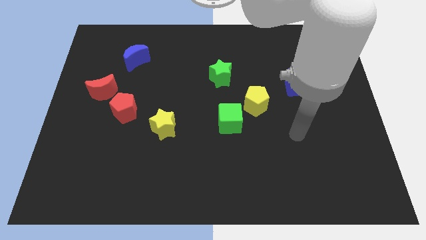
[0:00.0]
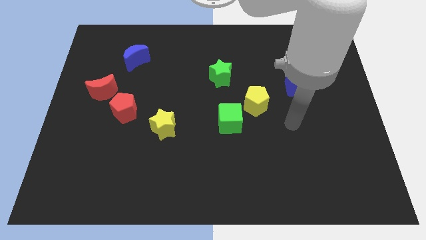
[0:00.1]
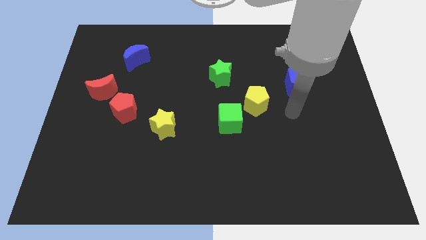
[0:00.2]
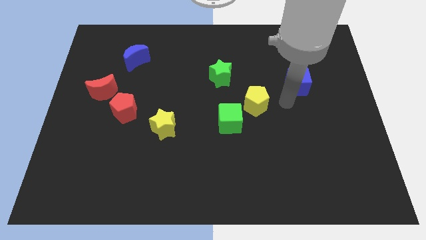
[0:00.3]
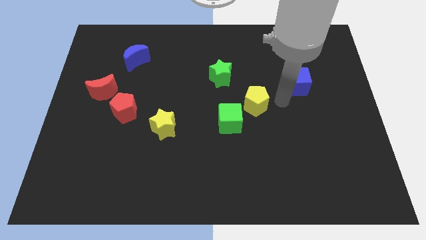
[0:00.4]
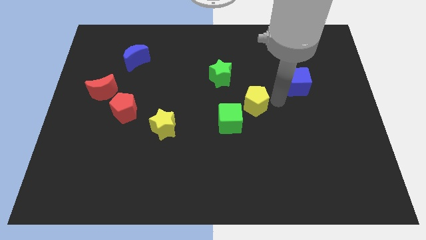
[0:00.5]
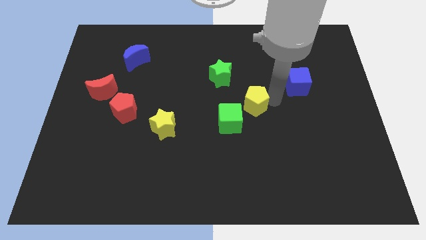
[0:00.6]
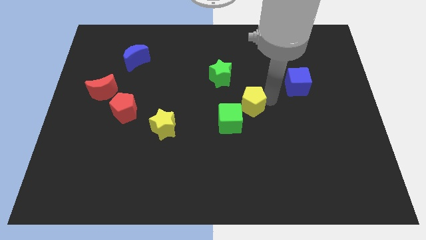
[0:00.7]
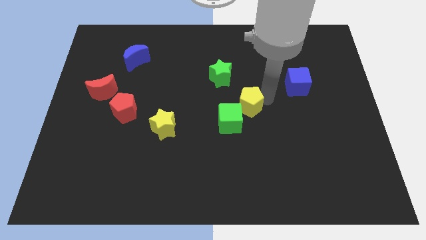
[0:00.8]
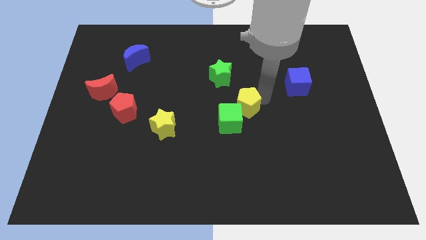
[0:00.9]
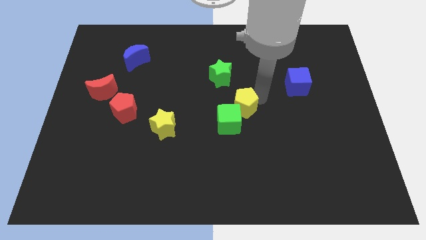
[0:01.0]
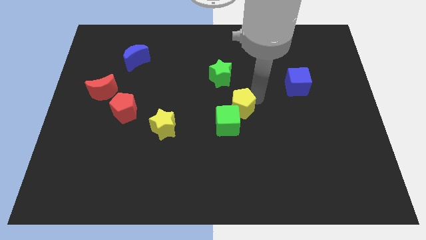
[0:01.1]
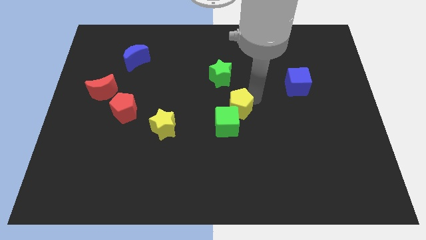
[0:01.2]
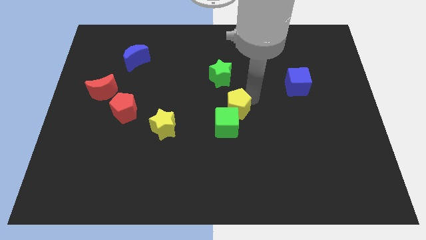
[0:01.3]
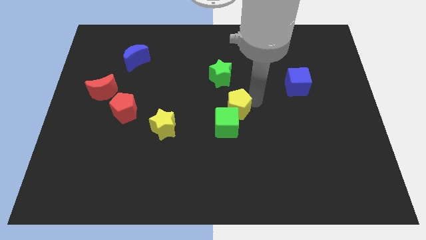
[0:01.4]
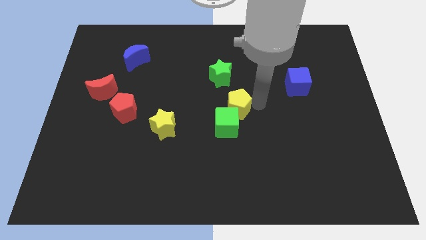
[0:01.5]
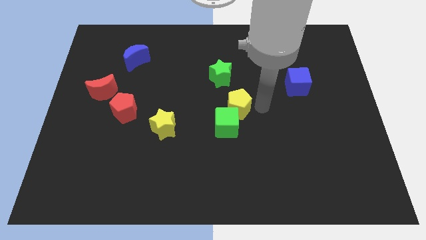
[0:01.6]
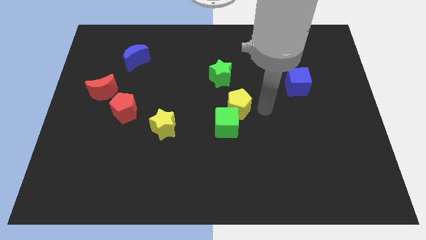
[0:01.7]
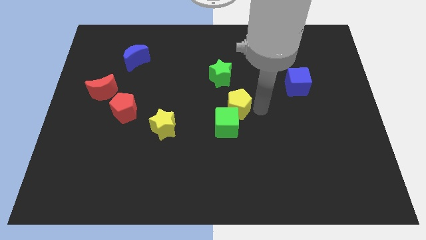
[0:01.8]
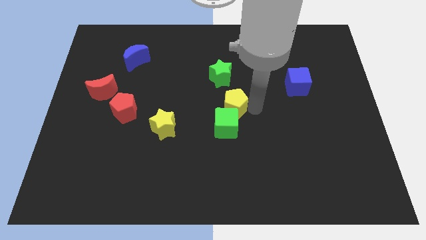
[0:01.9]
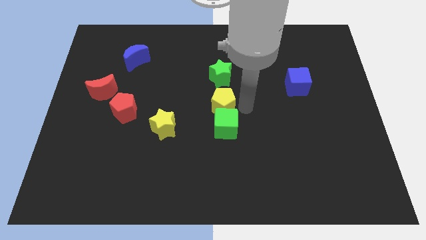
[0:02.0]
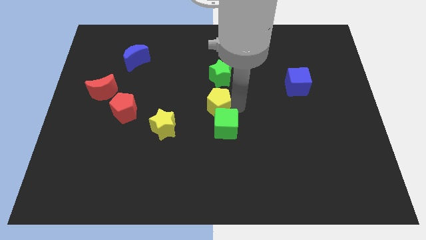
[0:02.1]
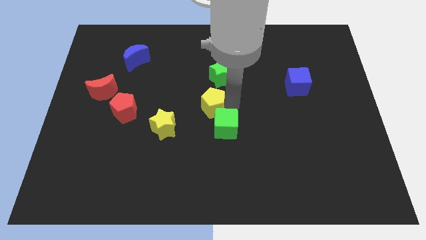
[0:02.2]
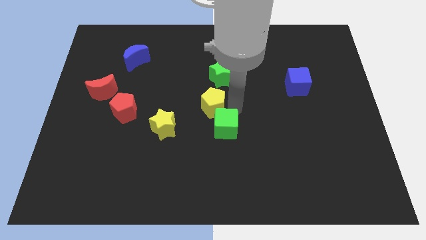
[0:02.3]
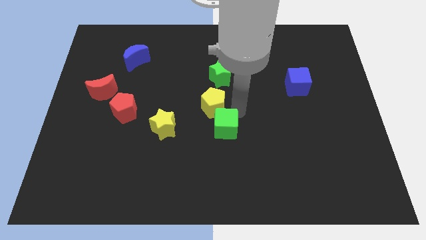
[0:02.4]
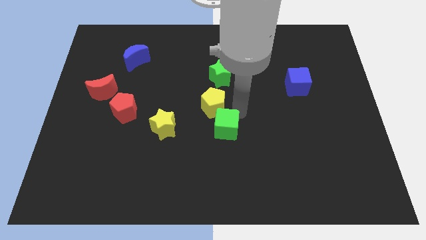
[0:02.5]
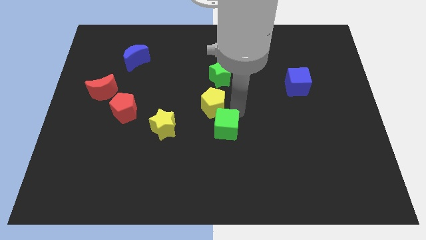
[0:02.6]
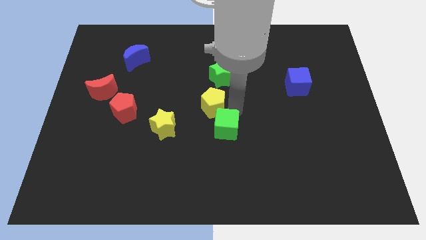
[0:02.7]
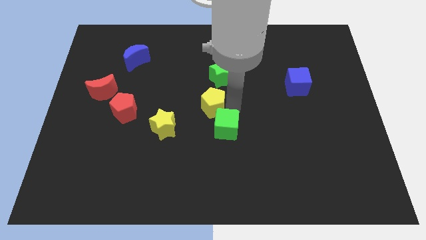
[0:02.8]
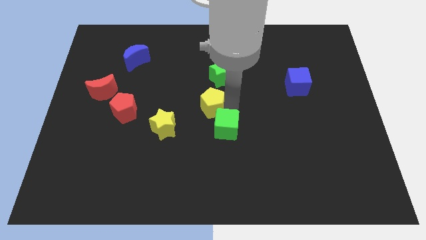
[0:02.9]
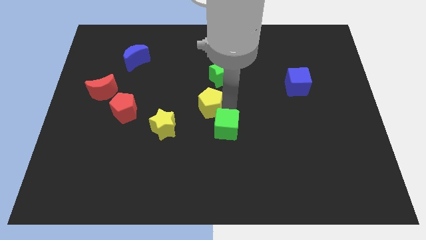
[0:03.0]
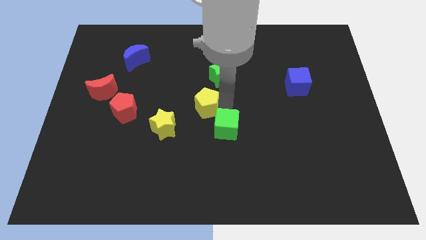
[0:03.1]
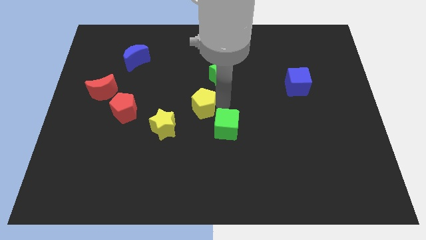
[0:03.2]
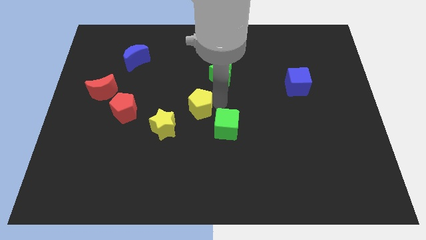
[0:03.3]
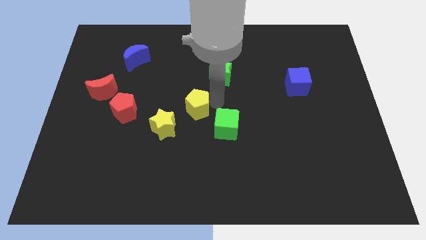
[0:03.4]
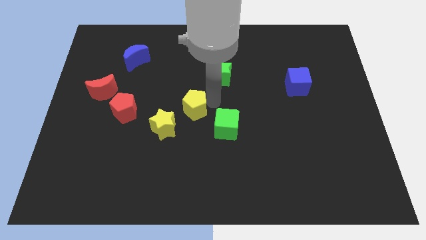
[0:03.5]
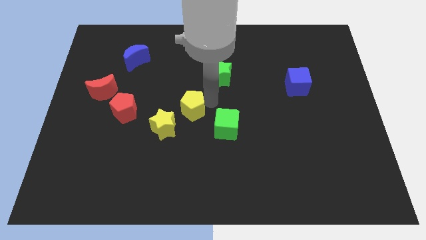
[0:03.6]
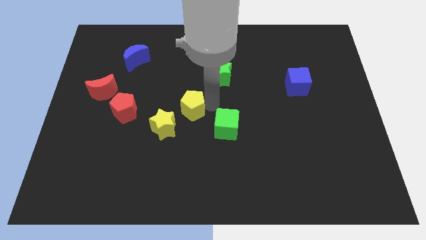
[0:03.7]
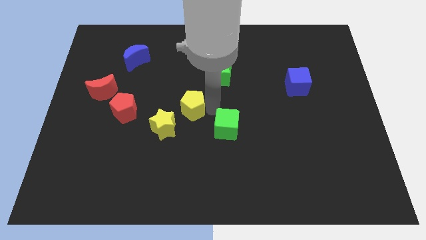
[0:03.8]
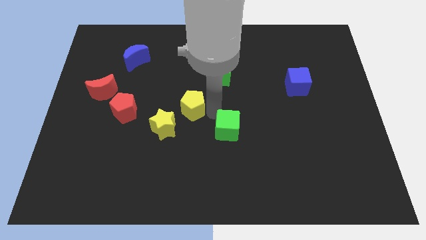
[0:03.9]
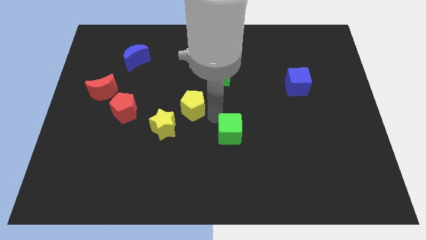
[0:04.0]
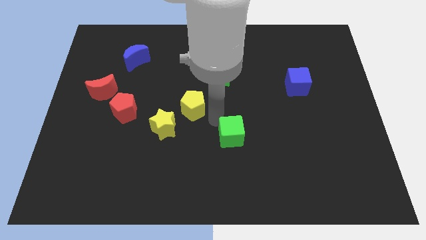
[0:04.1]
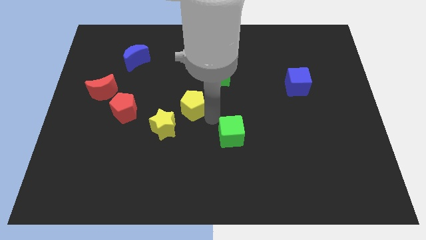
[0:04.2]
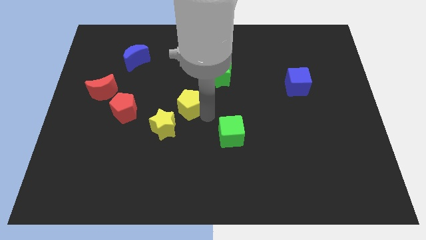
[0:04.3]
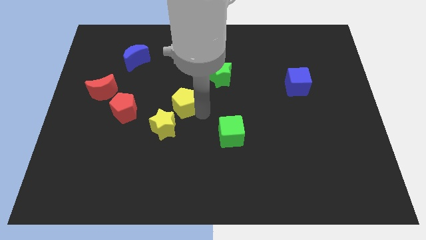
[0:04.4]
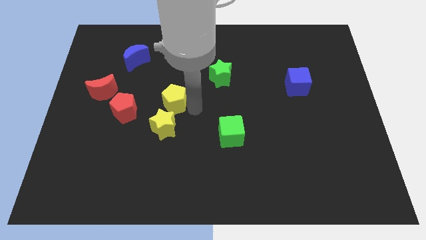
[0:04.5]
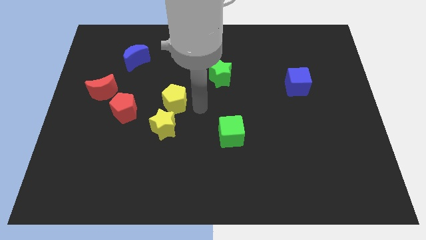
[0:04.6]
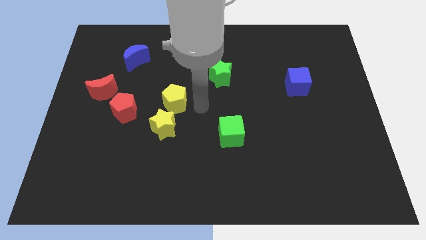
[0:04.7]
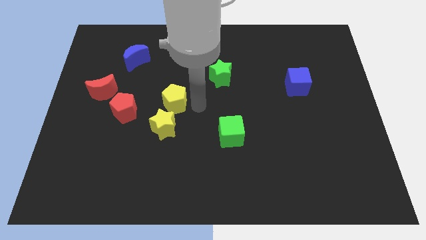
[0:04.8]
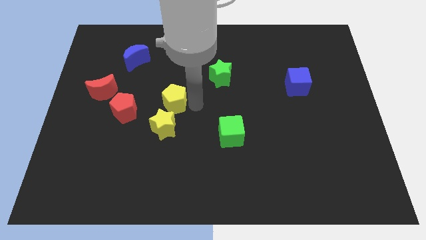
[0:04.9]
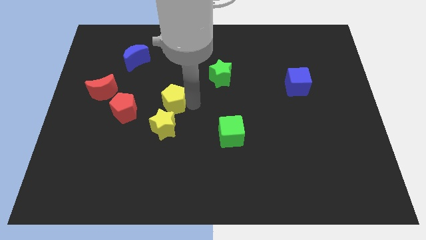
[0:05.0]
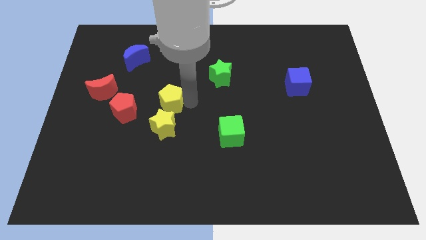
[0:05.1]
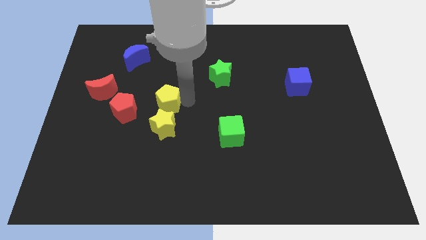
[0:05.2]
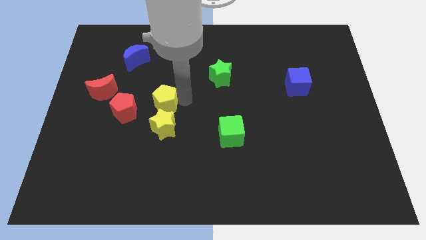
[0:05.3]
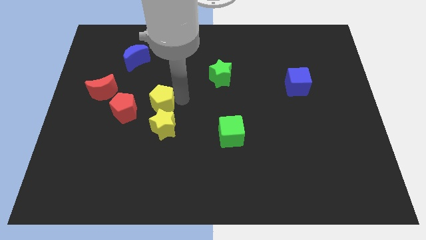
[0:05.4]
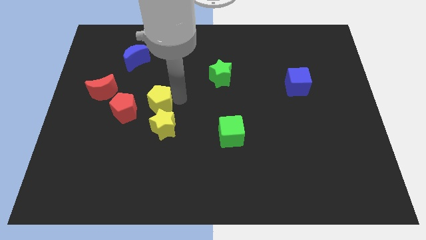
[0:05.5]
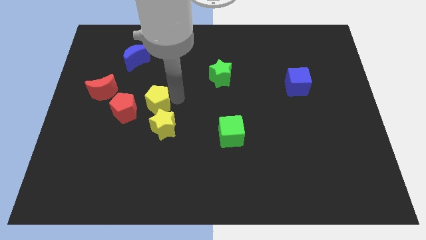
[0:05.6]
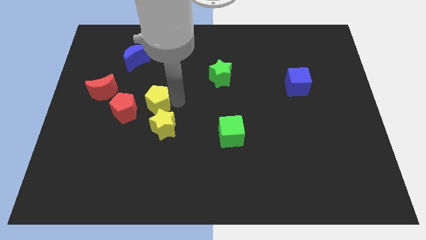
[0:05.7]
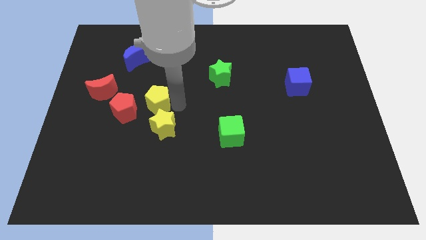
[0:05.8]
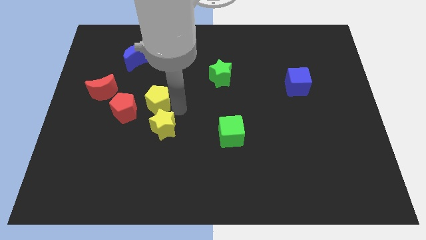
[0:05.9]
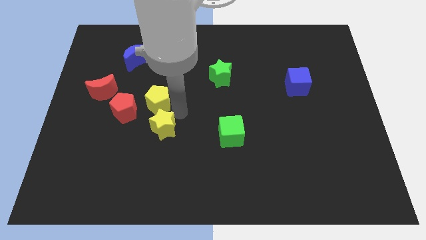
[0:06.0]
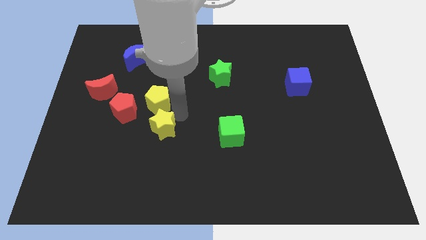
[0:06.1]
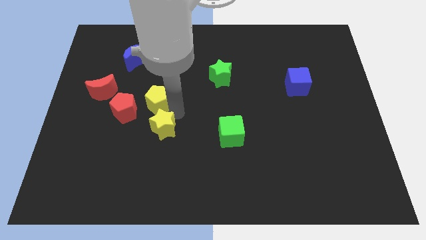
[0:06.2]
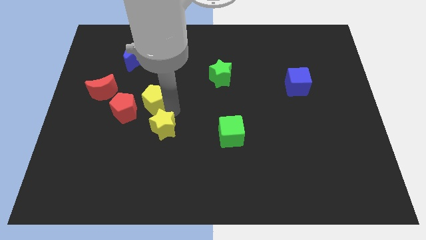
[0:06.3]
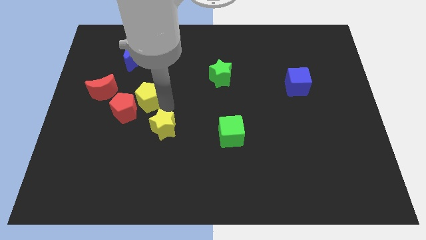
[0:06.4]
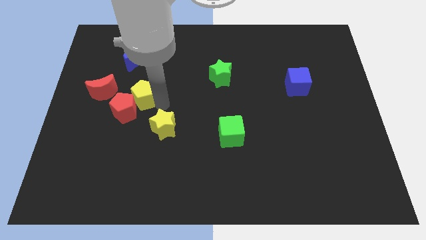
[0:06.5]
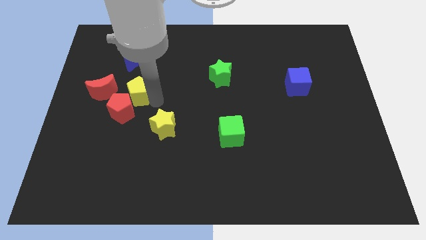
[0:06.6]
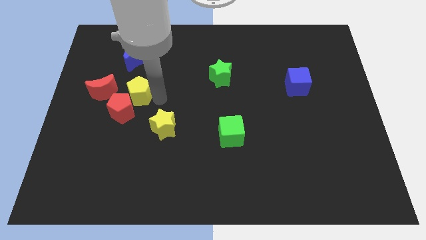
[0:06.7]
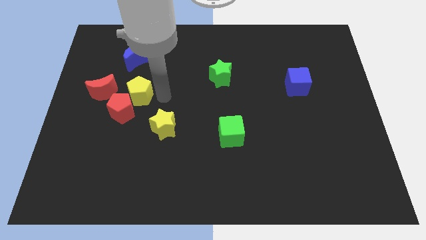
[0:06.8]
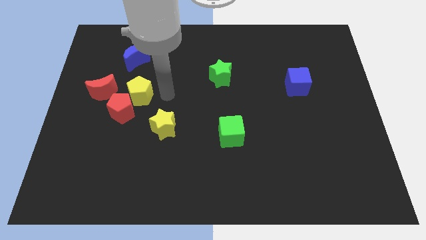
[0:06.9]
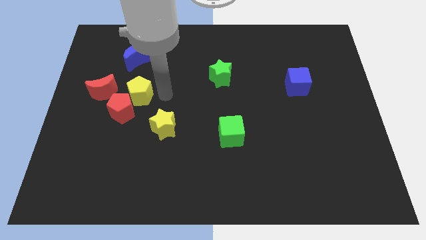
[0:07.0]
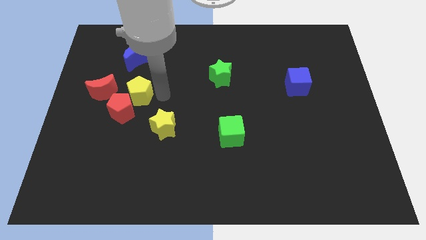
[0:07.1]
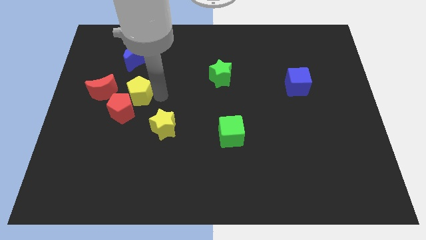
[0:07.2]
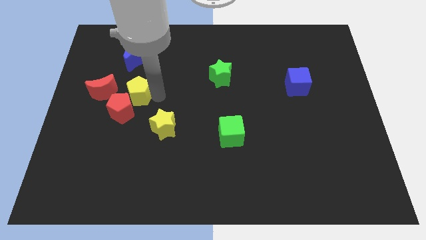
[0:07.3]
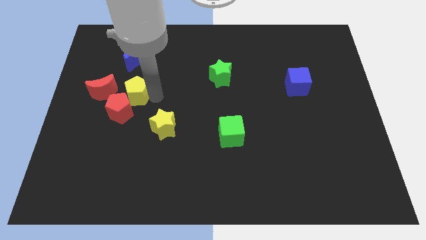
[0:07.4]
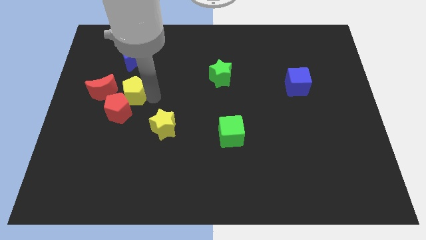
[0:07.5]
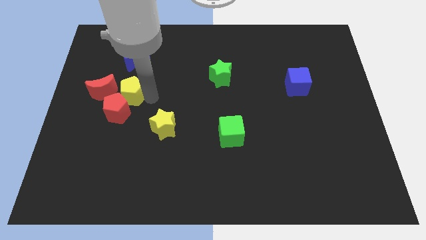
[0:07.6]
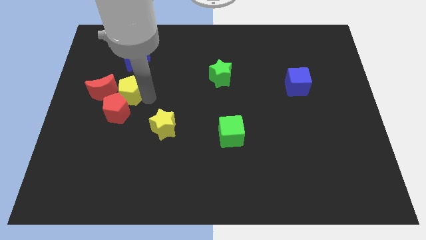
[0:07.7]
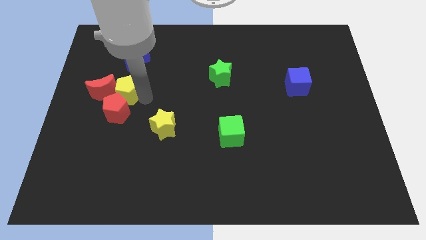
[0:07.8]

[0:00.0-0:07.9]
move the yellow pentagon towards the red moon
